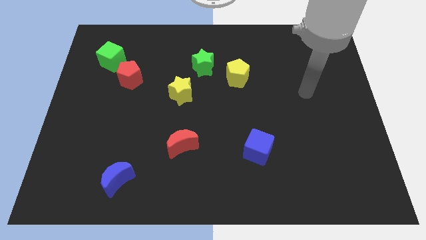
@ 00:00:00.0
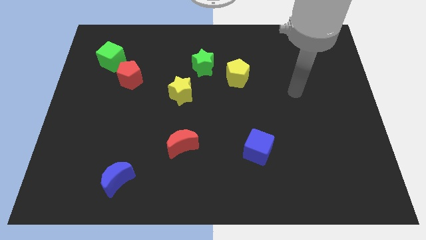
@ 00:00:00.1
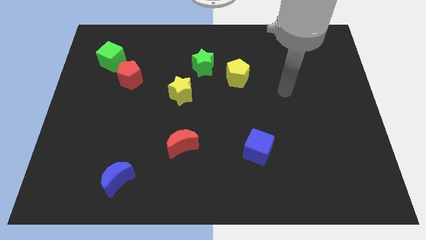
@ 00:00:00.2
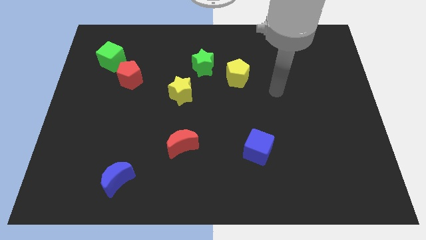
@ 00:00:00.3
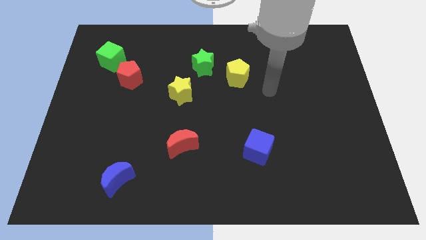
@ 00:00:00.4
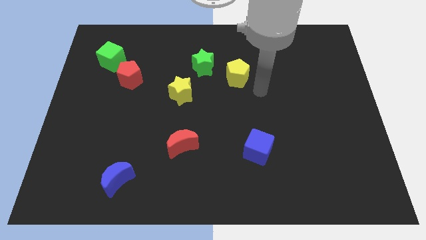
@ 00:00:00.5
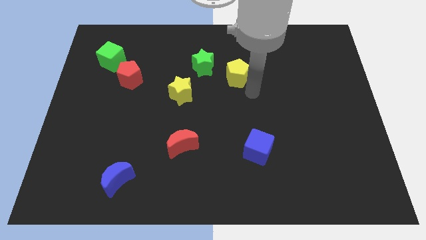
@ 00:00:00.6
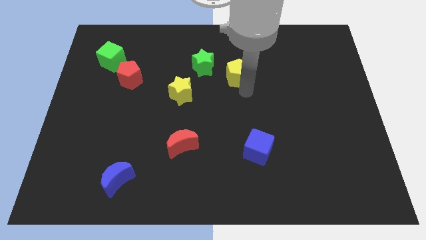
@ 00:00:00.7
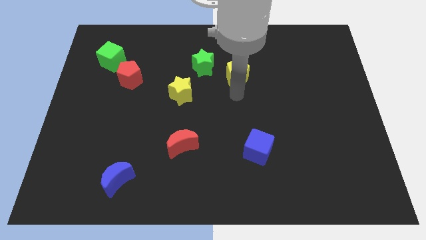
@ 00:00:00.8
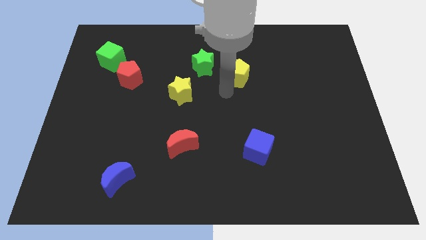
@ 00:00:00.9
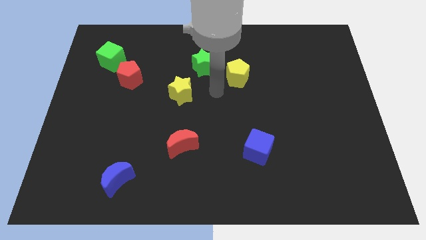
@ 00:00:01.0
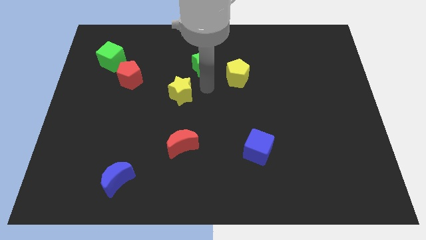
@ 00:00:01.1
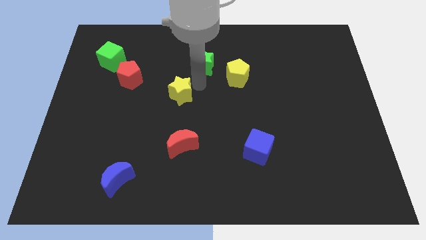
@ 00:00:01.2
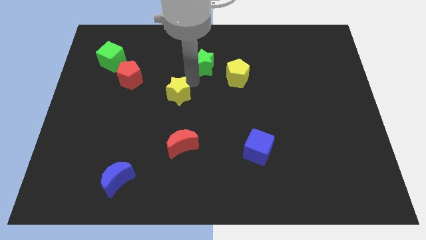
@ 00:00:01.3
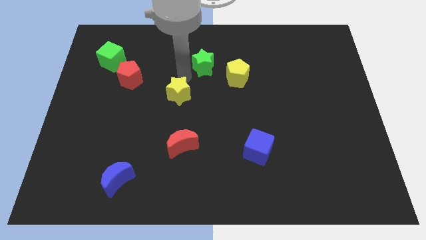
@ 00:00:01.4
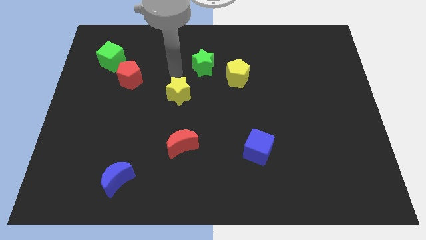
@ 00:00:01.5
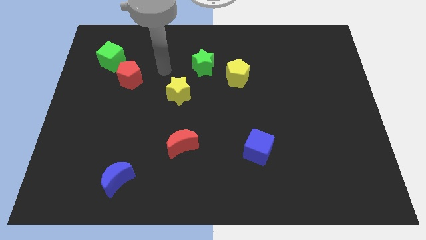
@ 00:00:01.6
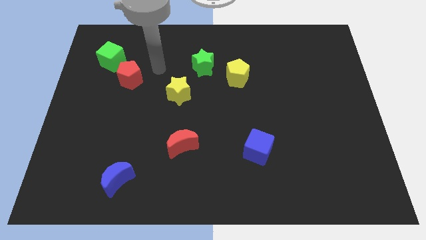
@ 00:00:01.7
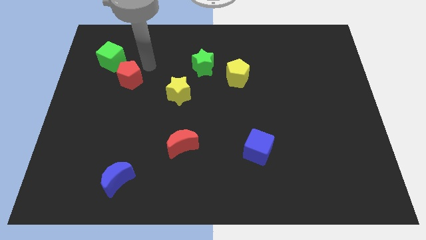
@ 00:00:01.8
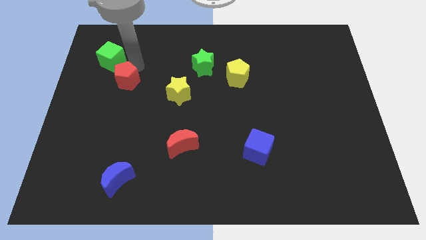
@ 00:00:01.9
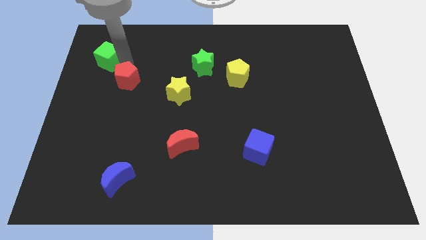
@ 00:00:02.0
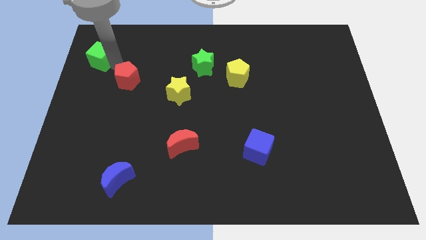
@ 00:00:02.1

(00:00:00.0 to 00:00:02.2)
move the red pentagon away from the green cube

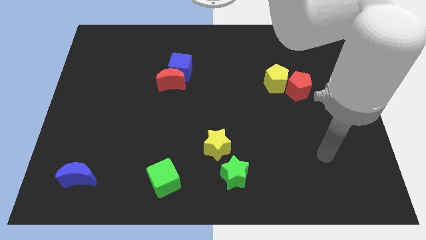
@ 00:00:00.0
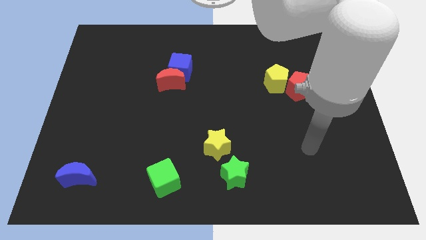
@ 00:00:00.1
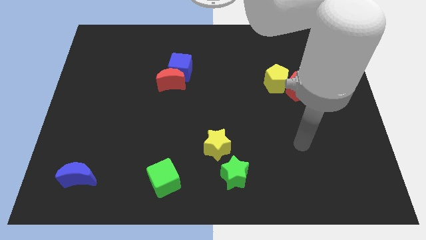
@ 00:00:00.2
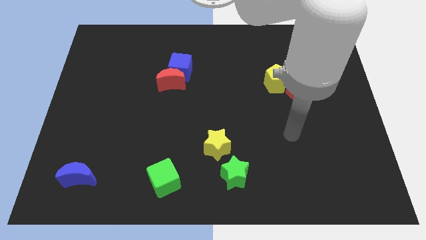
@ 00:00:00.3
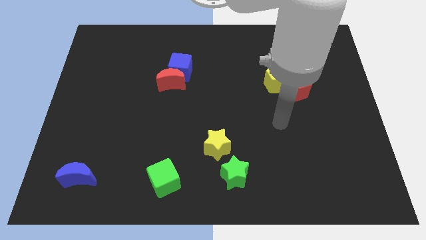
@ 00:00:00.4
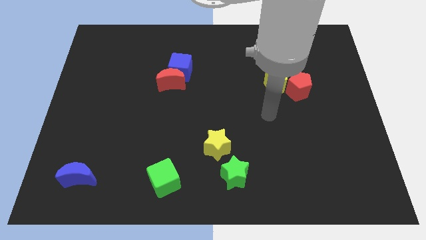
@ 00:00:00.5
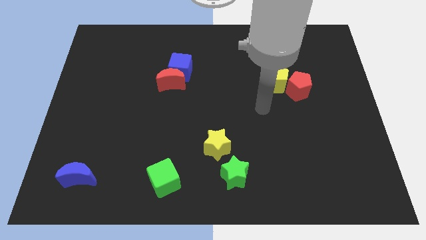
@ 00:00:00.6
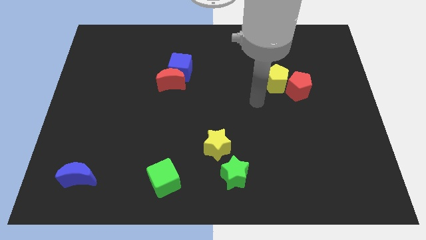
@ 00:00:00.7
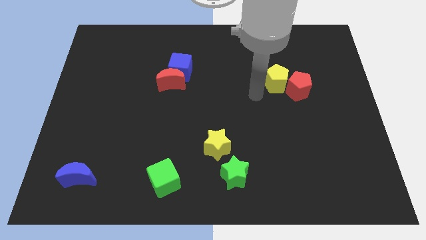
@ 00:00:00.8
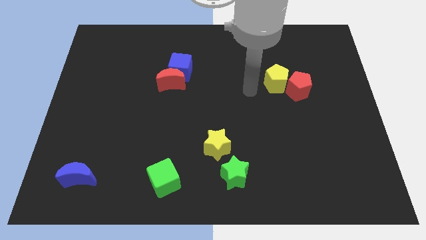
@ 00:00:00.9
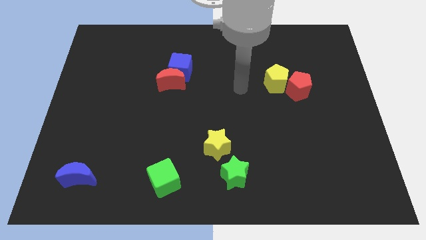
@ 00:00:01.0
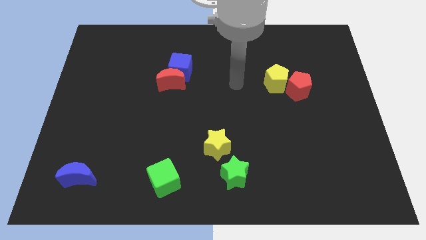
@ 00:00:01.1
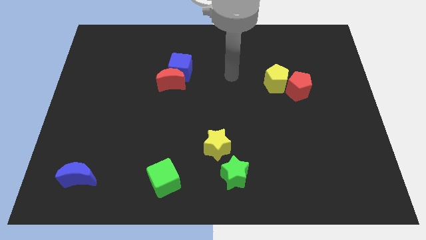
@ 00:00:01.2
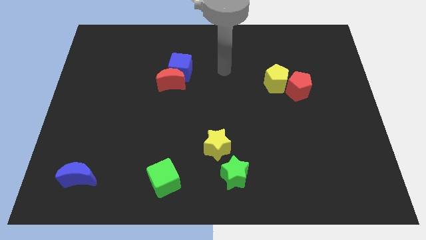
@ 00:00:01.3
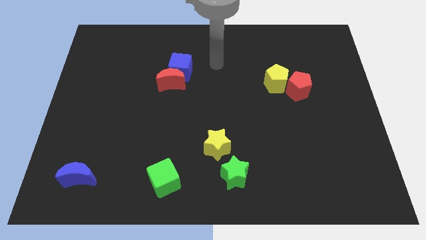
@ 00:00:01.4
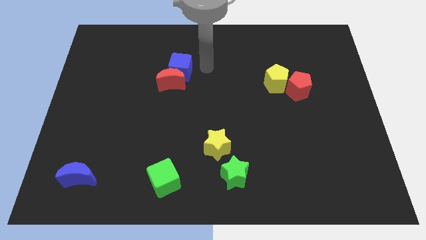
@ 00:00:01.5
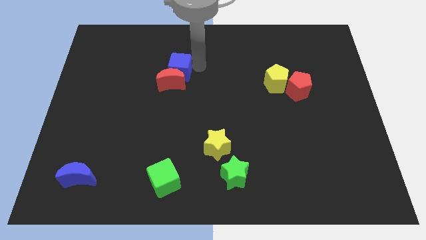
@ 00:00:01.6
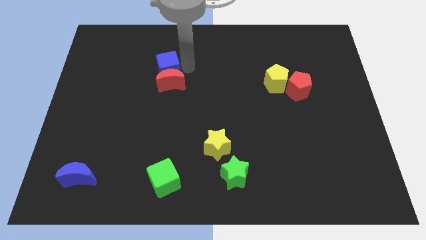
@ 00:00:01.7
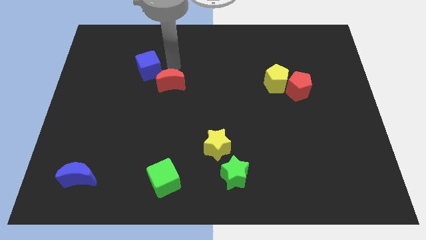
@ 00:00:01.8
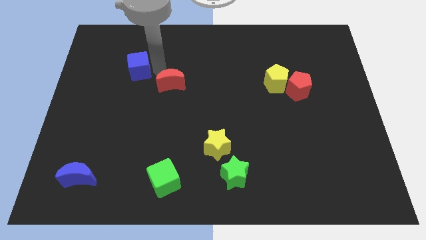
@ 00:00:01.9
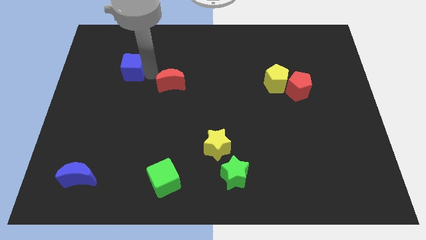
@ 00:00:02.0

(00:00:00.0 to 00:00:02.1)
move the red moon away from the blue cube

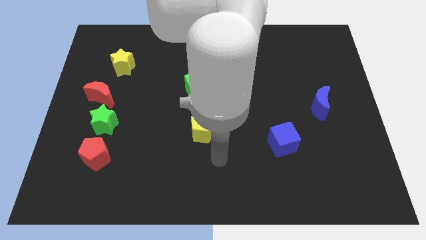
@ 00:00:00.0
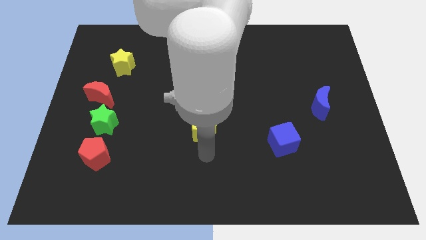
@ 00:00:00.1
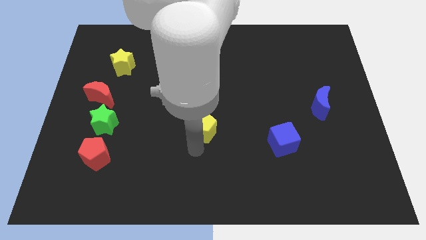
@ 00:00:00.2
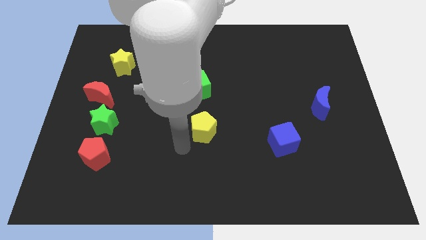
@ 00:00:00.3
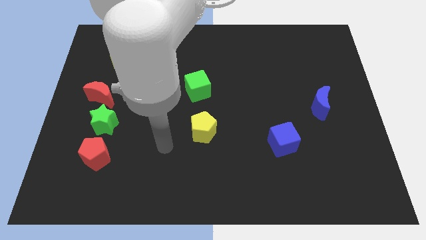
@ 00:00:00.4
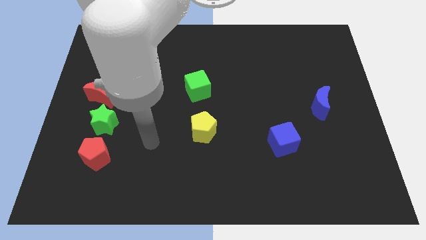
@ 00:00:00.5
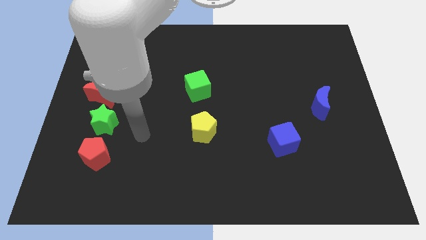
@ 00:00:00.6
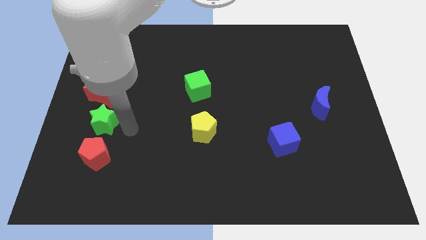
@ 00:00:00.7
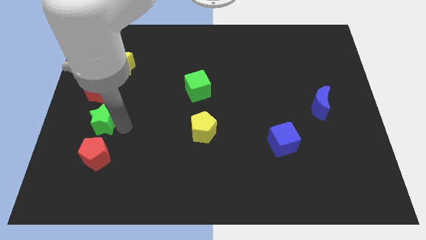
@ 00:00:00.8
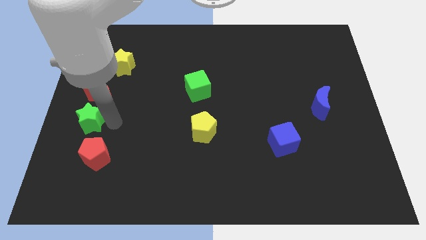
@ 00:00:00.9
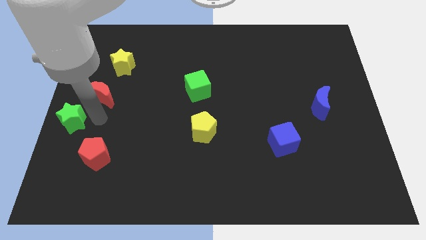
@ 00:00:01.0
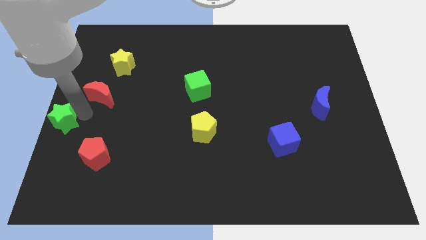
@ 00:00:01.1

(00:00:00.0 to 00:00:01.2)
move the red moon away from the green star

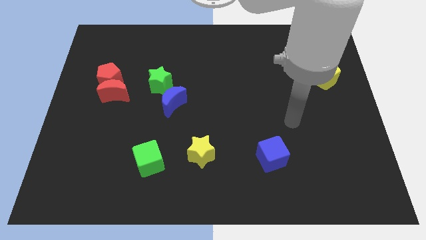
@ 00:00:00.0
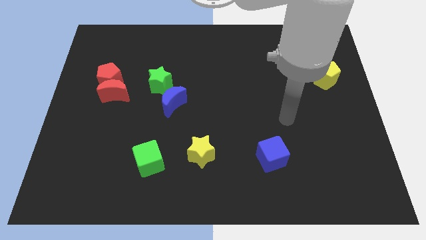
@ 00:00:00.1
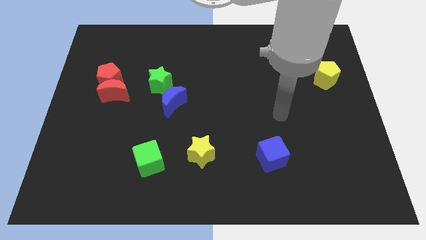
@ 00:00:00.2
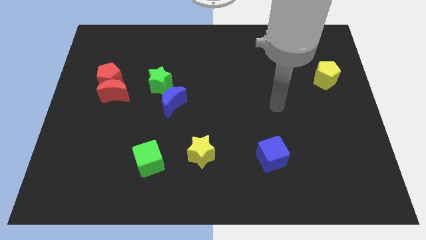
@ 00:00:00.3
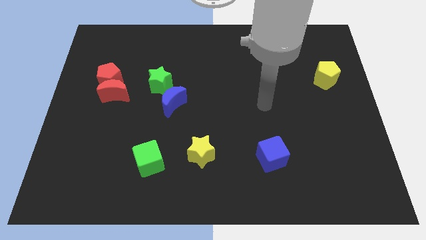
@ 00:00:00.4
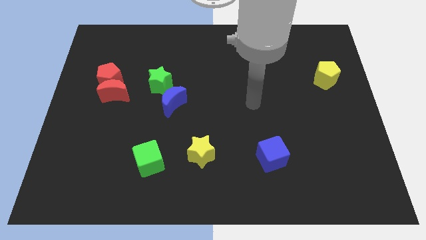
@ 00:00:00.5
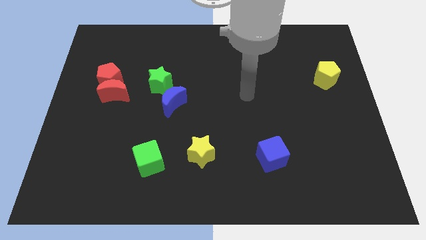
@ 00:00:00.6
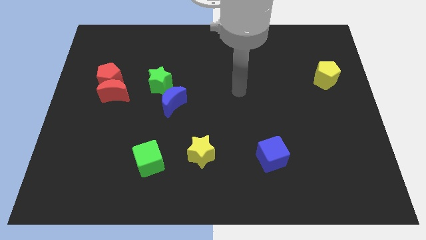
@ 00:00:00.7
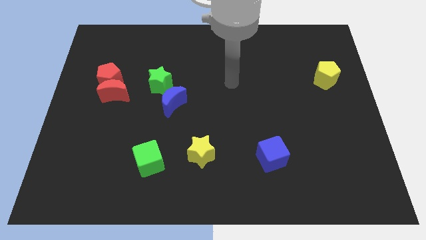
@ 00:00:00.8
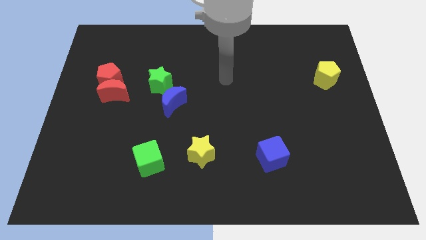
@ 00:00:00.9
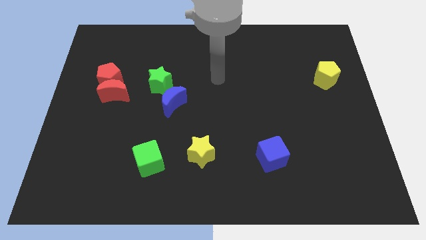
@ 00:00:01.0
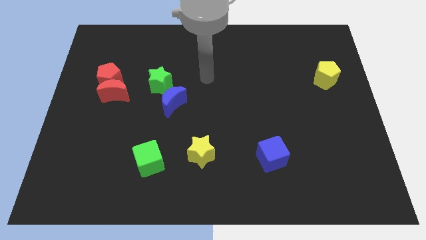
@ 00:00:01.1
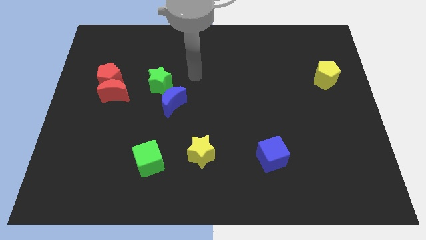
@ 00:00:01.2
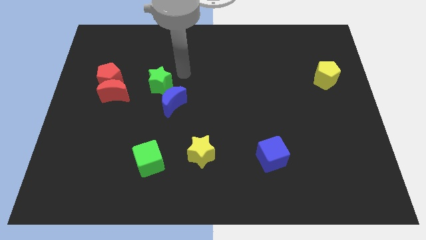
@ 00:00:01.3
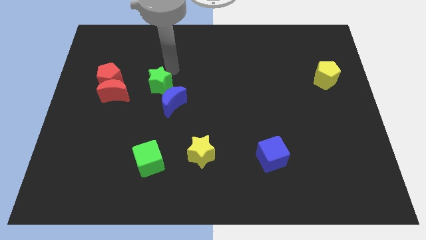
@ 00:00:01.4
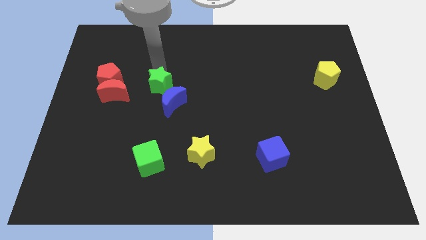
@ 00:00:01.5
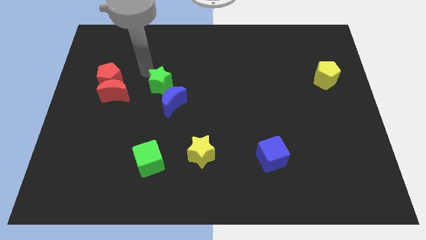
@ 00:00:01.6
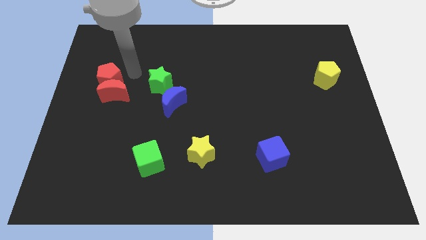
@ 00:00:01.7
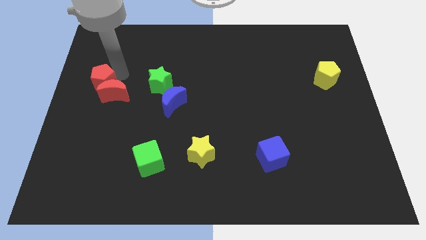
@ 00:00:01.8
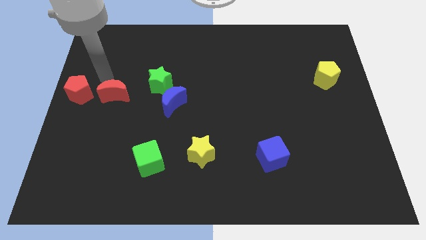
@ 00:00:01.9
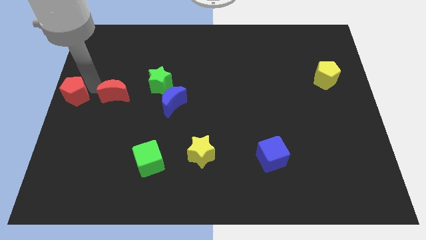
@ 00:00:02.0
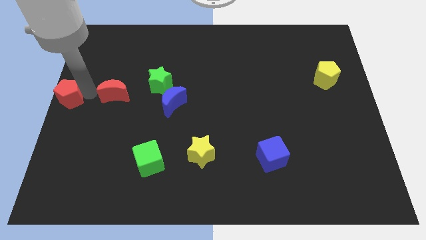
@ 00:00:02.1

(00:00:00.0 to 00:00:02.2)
move the red moon away from the red pentagon

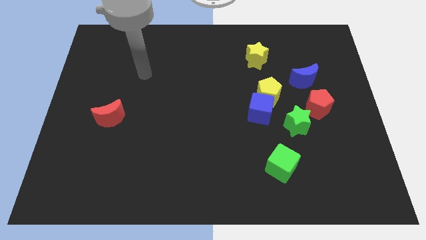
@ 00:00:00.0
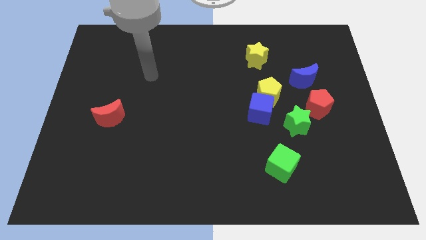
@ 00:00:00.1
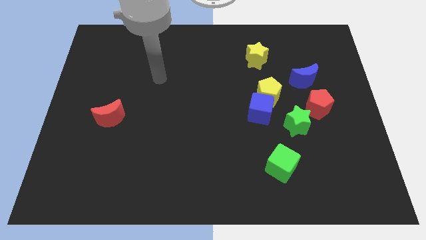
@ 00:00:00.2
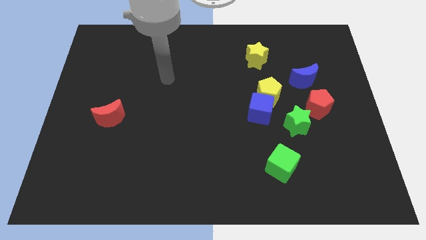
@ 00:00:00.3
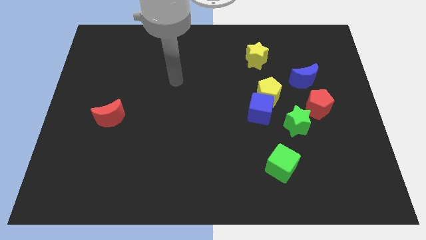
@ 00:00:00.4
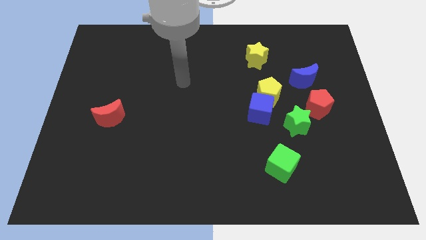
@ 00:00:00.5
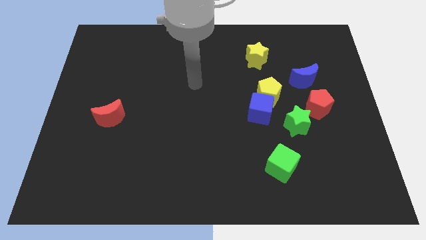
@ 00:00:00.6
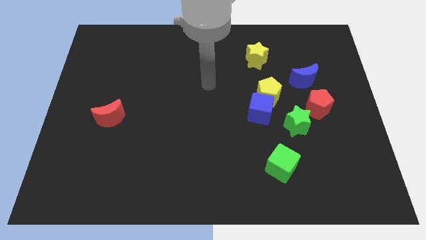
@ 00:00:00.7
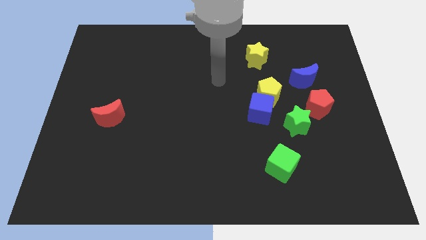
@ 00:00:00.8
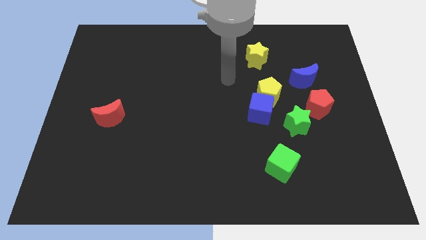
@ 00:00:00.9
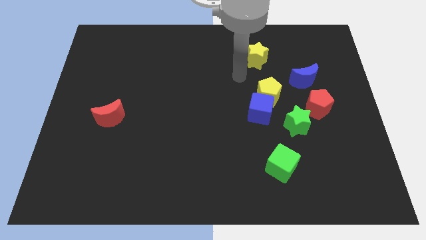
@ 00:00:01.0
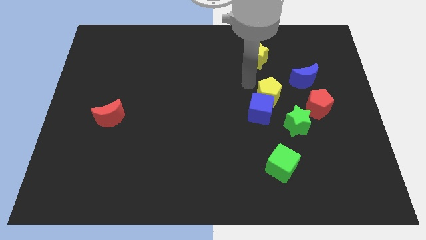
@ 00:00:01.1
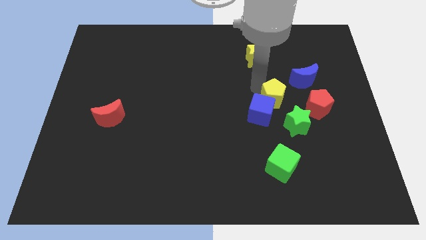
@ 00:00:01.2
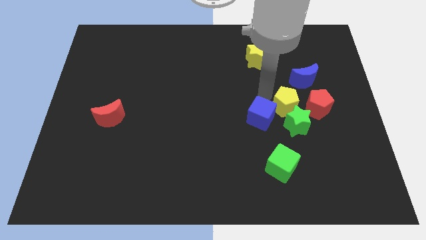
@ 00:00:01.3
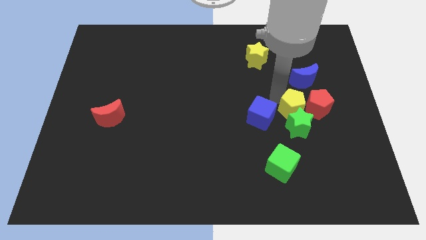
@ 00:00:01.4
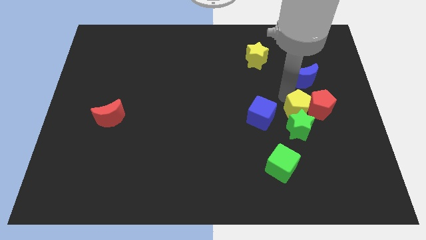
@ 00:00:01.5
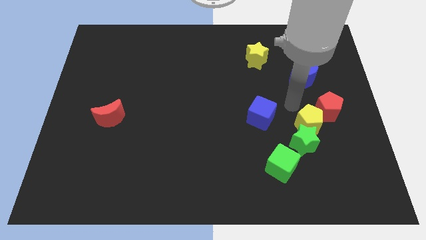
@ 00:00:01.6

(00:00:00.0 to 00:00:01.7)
pull the blue cube apart from the yellow pentagon and green star
